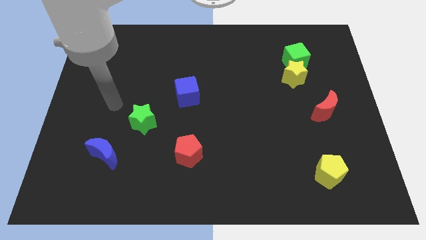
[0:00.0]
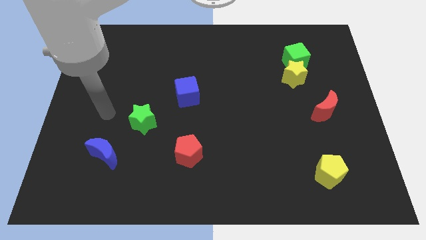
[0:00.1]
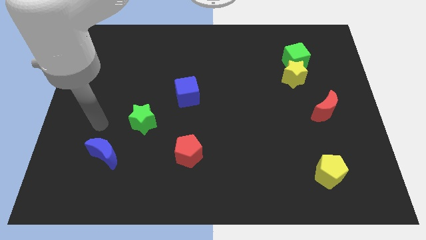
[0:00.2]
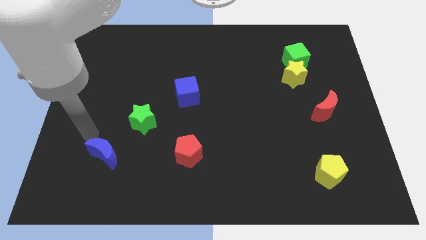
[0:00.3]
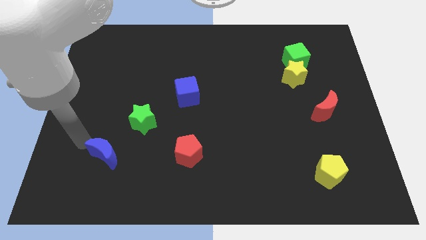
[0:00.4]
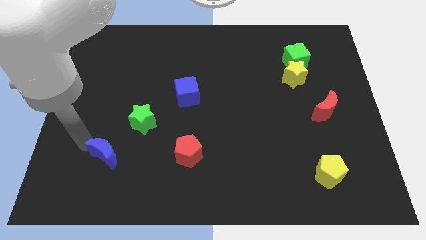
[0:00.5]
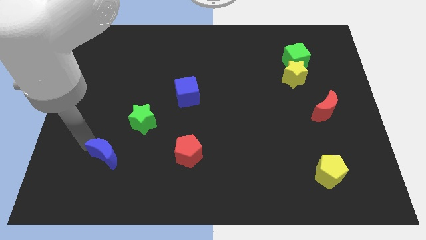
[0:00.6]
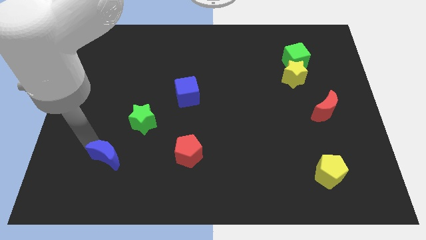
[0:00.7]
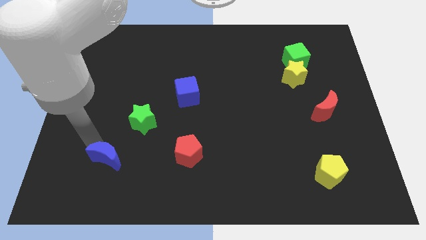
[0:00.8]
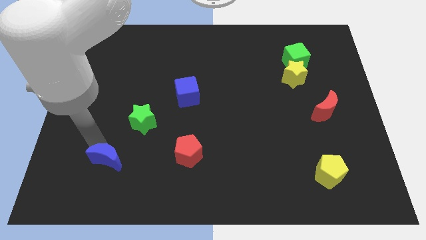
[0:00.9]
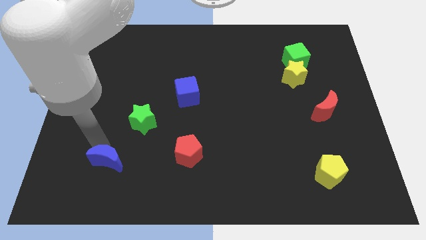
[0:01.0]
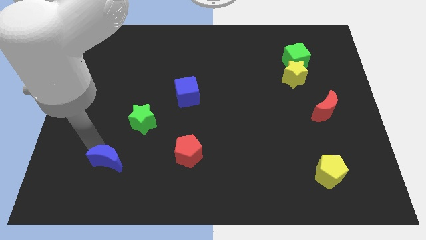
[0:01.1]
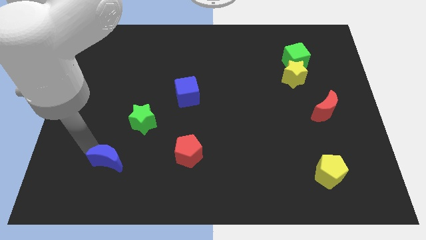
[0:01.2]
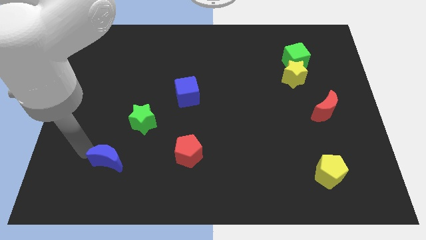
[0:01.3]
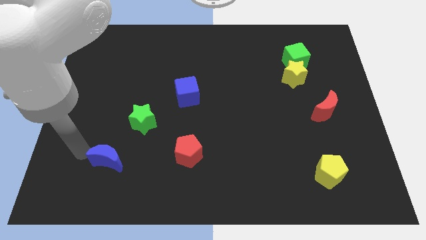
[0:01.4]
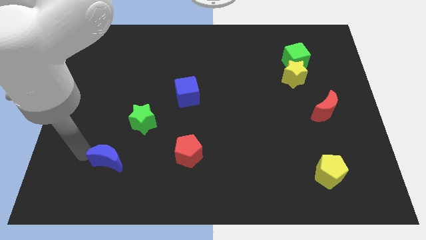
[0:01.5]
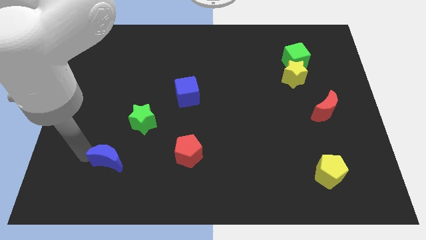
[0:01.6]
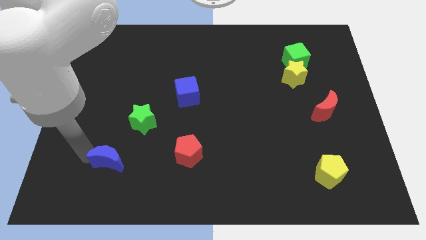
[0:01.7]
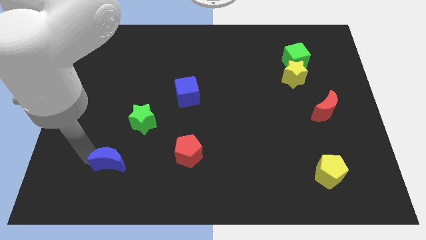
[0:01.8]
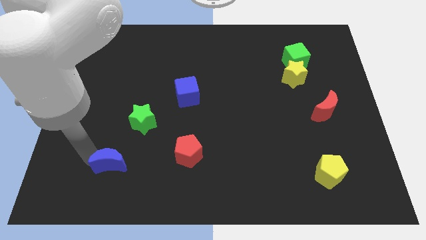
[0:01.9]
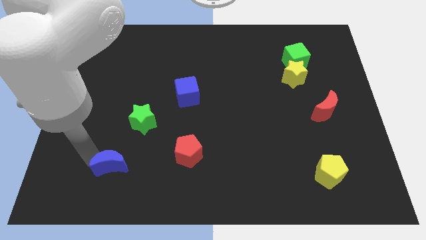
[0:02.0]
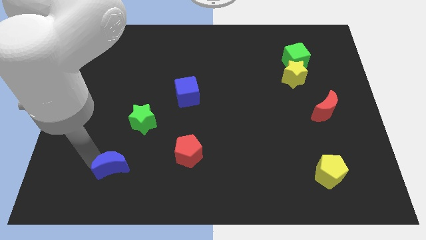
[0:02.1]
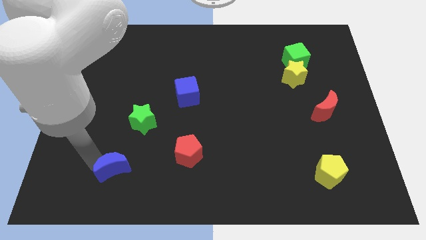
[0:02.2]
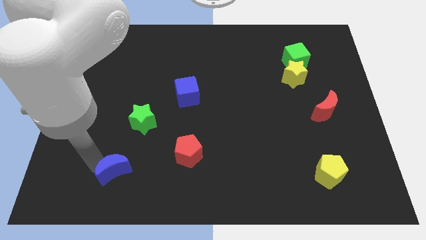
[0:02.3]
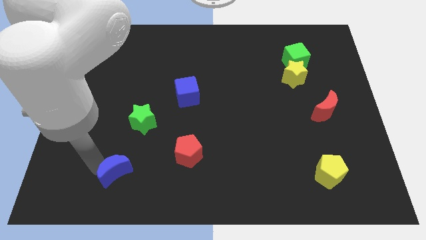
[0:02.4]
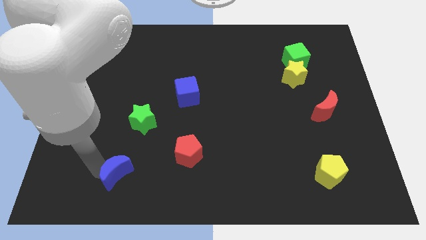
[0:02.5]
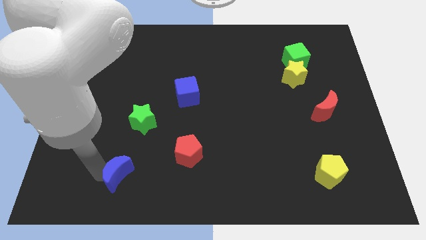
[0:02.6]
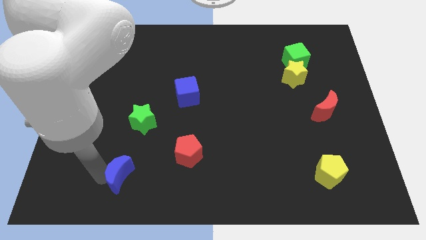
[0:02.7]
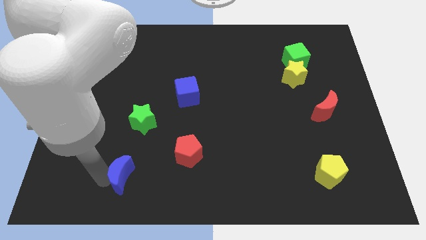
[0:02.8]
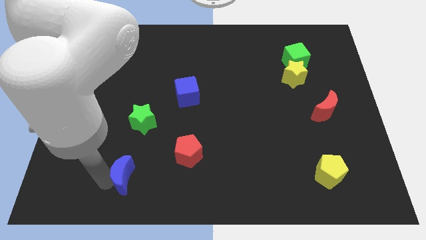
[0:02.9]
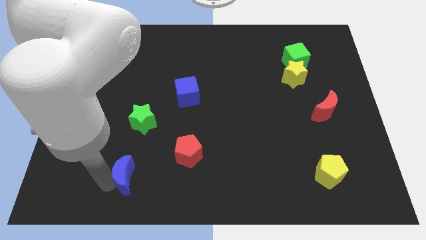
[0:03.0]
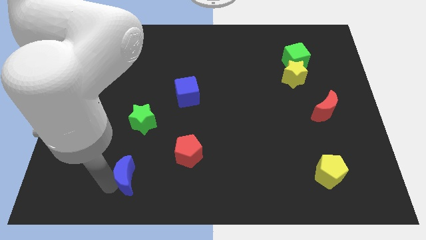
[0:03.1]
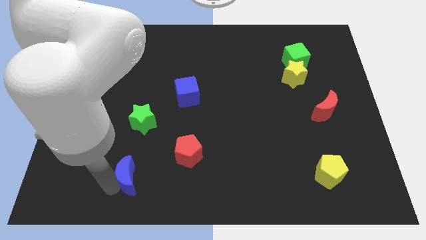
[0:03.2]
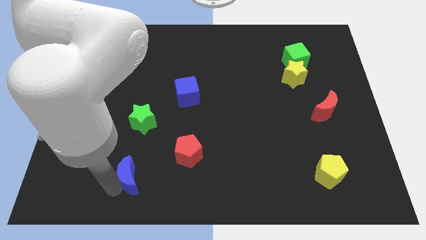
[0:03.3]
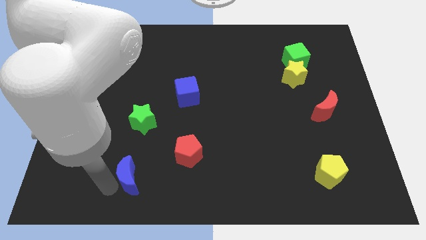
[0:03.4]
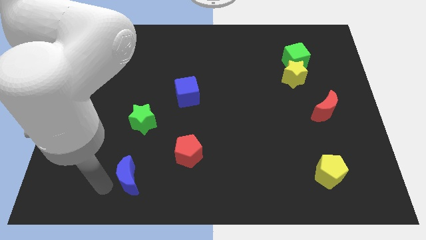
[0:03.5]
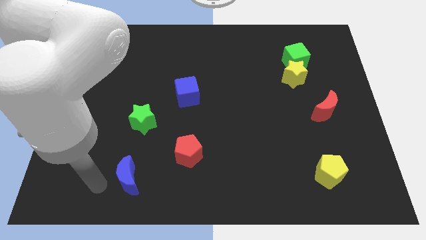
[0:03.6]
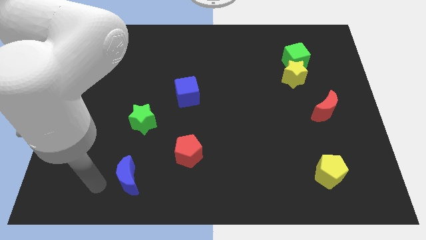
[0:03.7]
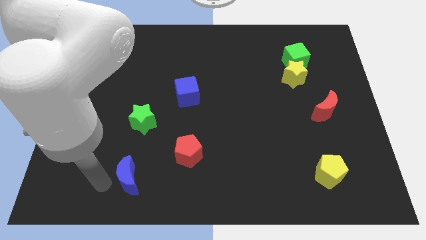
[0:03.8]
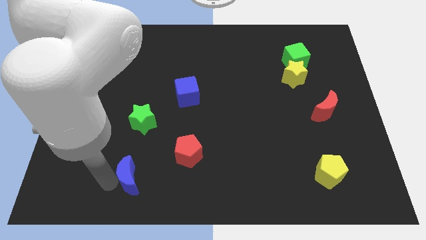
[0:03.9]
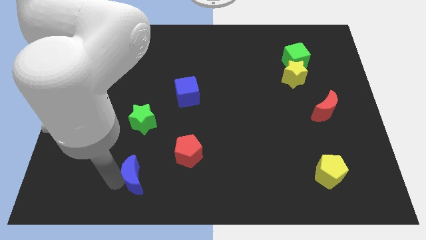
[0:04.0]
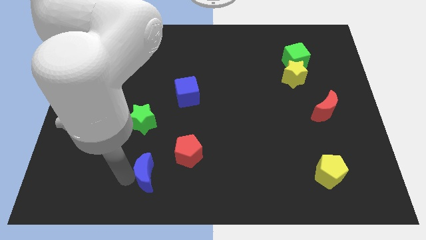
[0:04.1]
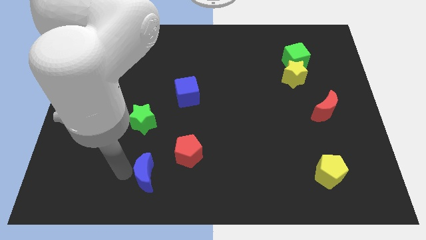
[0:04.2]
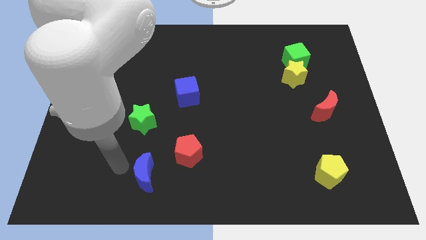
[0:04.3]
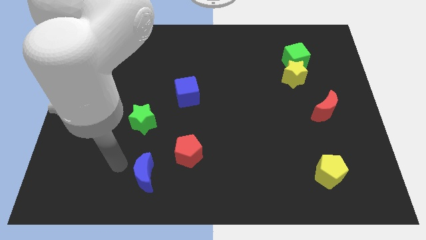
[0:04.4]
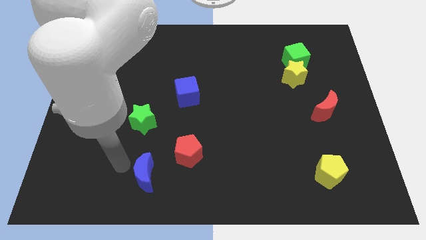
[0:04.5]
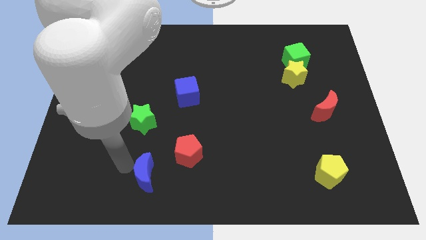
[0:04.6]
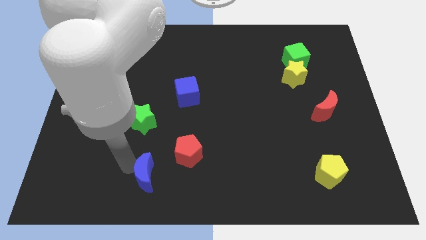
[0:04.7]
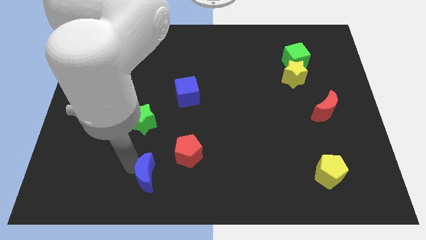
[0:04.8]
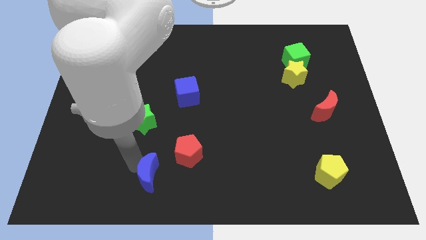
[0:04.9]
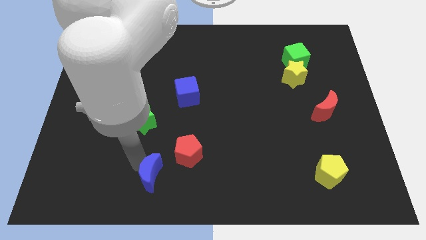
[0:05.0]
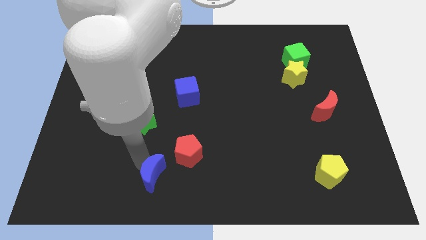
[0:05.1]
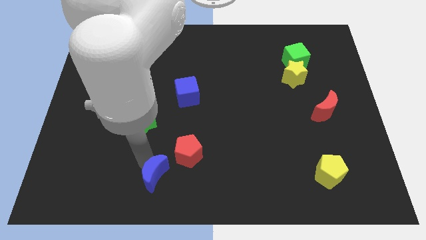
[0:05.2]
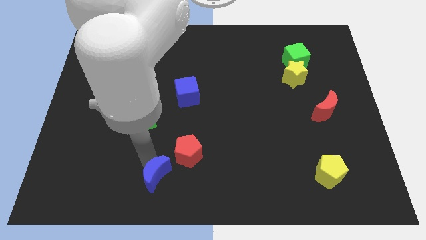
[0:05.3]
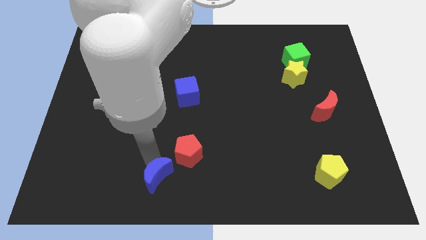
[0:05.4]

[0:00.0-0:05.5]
slide the blue moon to the bottom

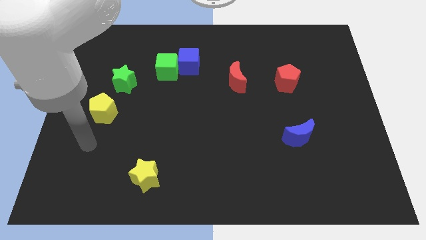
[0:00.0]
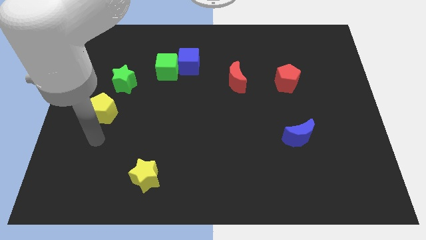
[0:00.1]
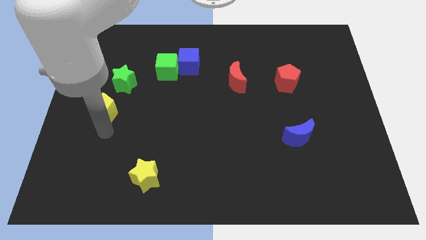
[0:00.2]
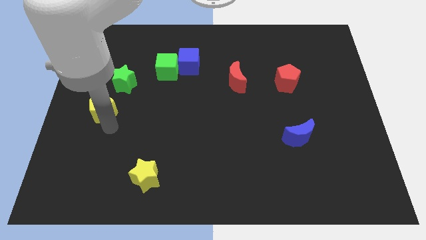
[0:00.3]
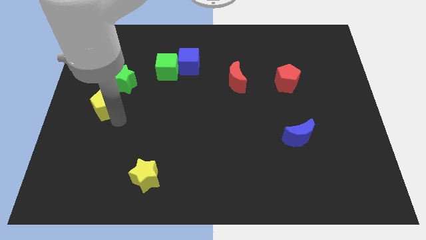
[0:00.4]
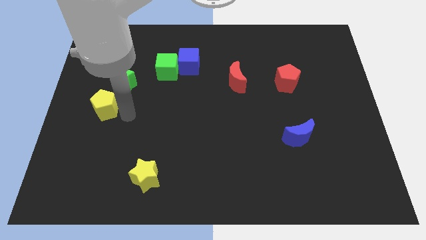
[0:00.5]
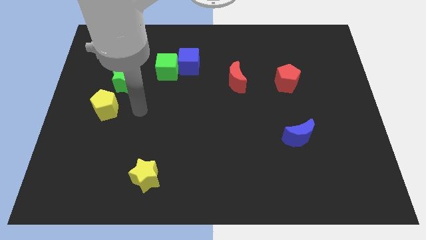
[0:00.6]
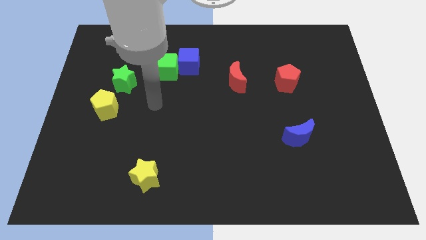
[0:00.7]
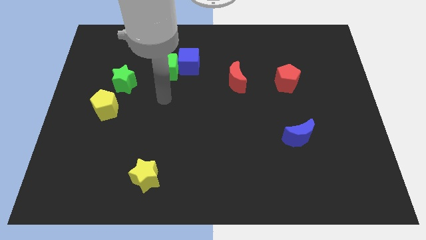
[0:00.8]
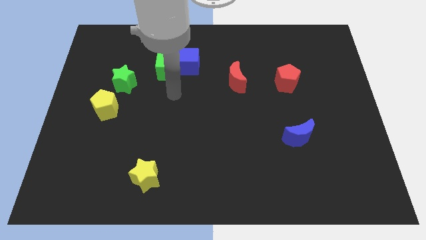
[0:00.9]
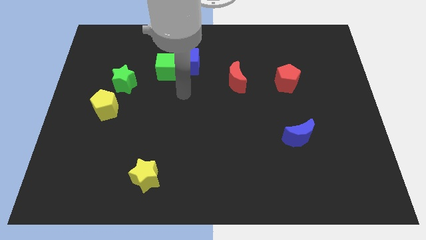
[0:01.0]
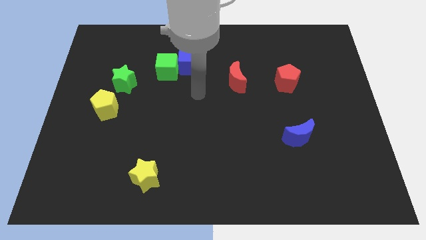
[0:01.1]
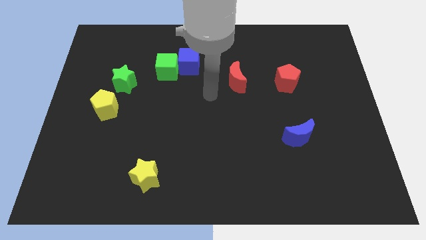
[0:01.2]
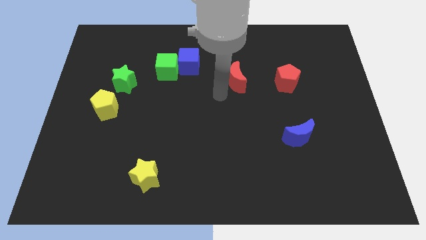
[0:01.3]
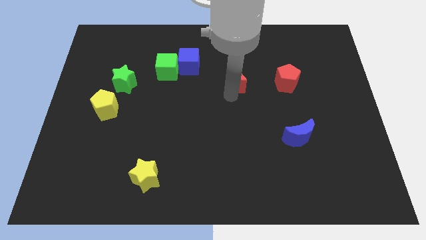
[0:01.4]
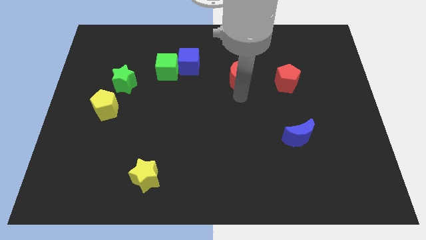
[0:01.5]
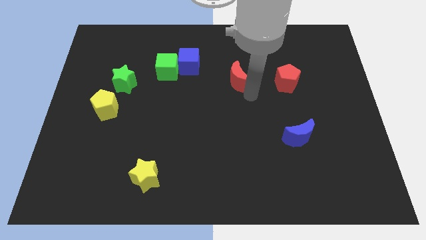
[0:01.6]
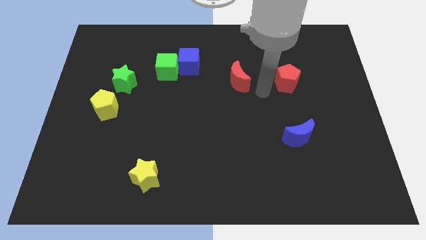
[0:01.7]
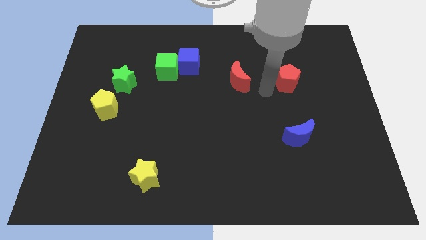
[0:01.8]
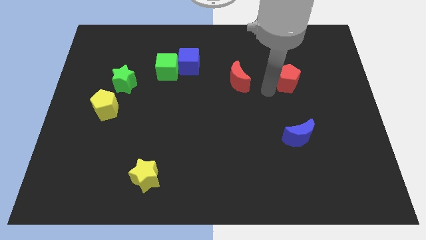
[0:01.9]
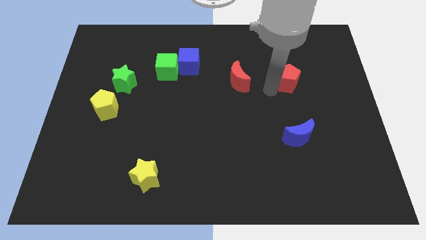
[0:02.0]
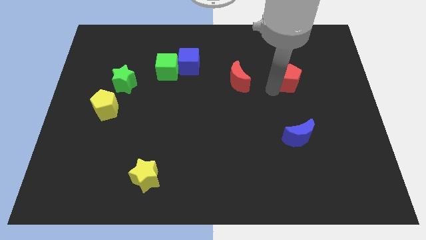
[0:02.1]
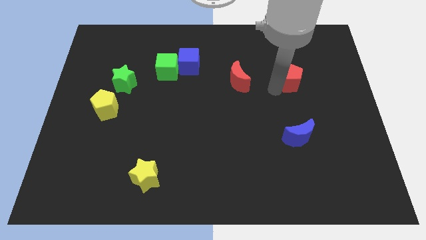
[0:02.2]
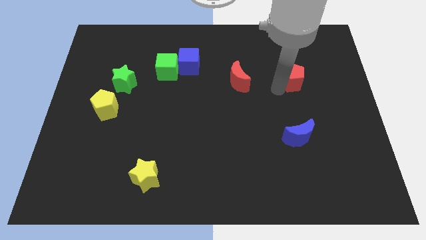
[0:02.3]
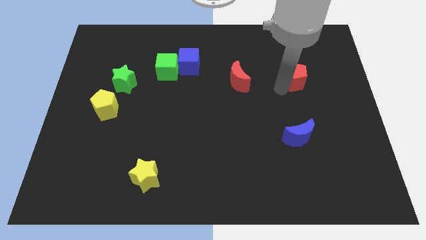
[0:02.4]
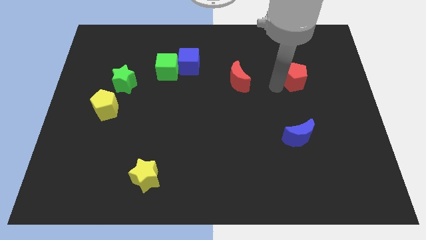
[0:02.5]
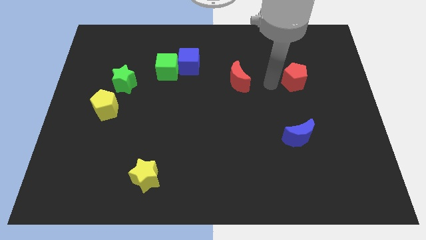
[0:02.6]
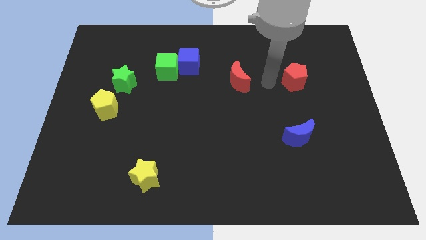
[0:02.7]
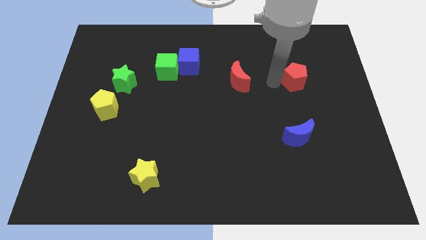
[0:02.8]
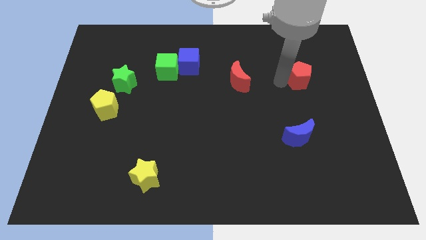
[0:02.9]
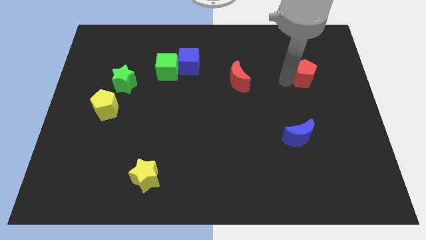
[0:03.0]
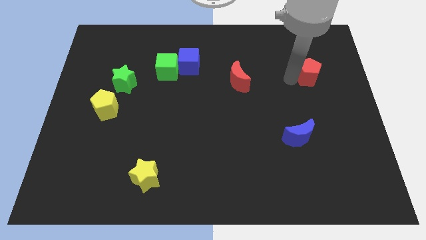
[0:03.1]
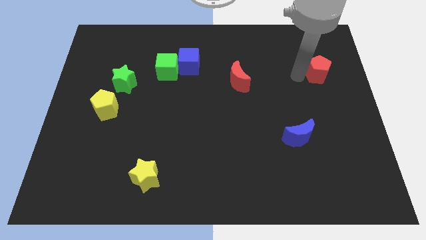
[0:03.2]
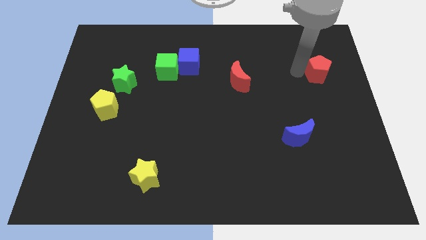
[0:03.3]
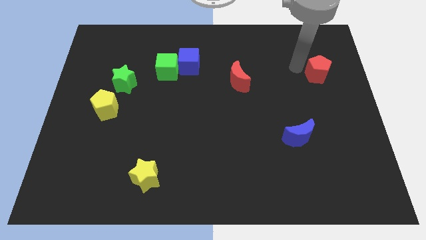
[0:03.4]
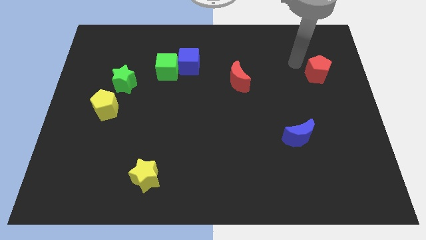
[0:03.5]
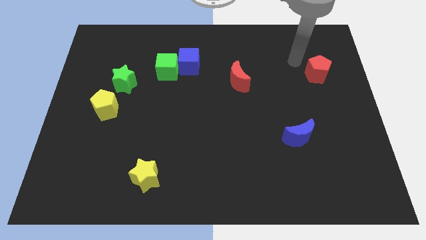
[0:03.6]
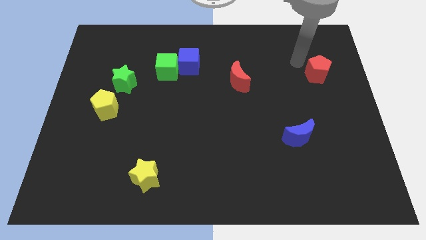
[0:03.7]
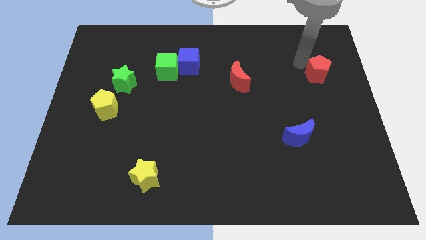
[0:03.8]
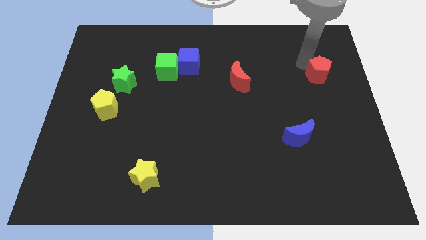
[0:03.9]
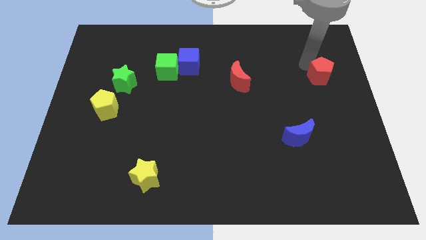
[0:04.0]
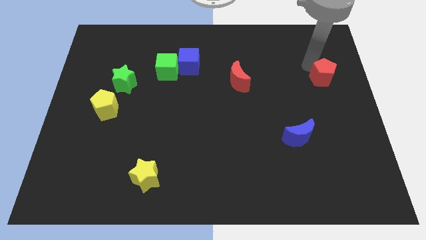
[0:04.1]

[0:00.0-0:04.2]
put the red pentagon to the right side
